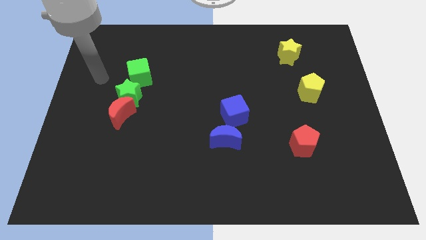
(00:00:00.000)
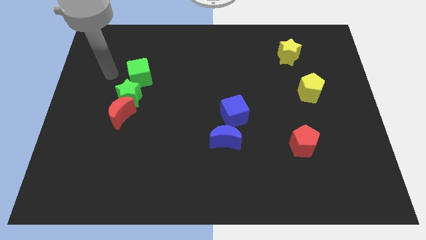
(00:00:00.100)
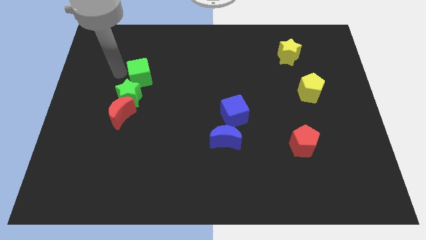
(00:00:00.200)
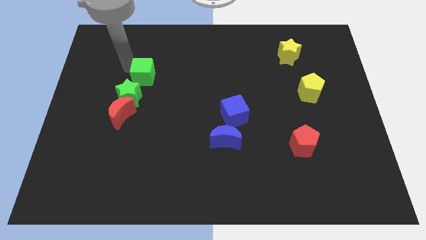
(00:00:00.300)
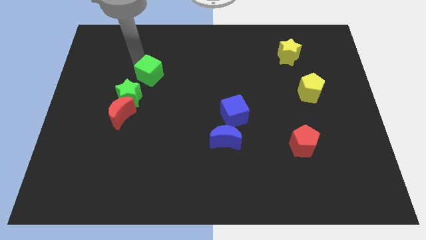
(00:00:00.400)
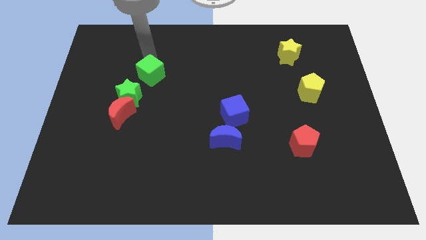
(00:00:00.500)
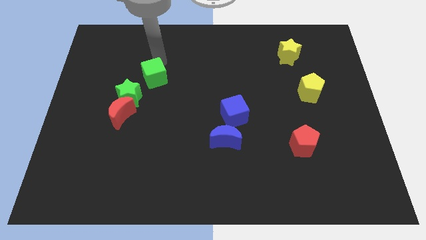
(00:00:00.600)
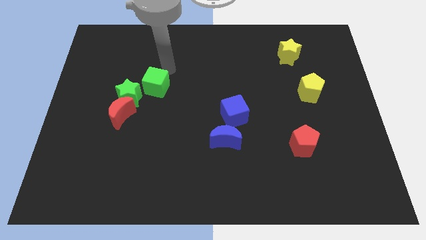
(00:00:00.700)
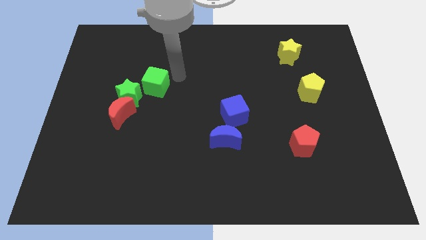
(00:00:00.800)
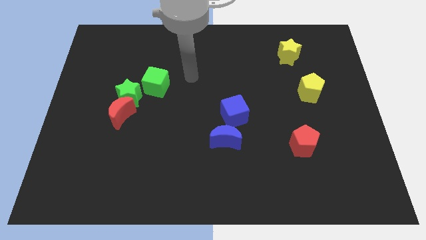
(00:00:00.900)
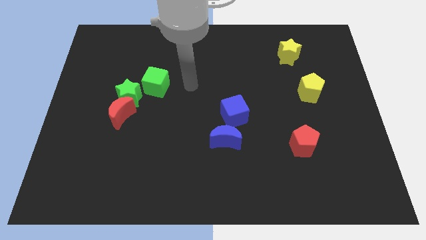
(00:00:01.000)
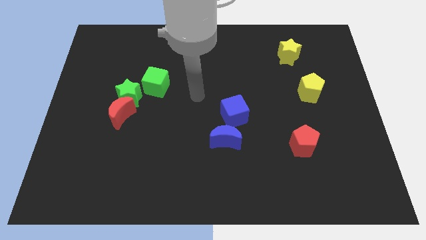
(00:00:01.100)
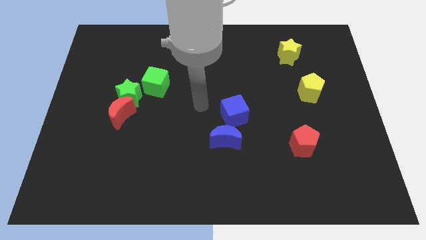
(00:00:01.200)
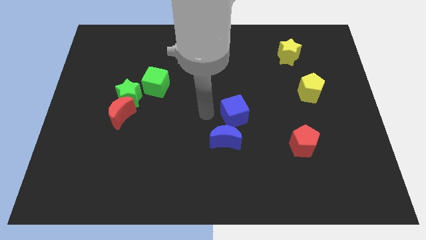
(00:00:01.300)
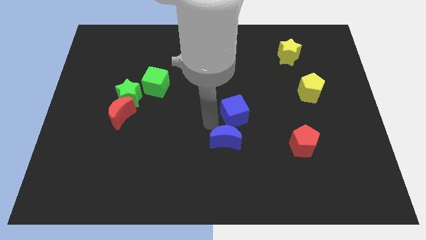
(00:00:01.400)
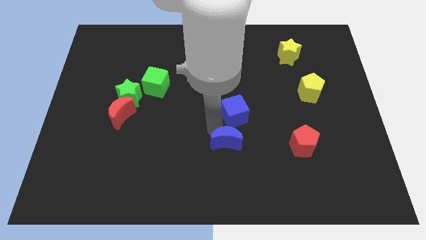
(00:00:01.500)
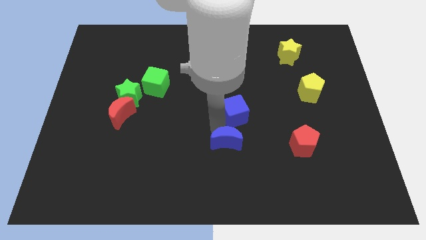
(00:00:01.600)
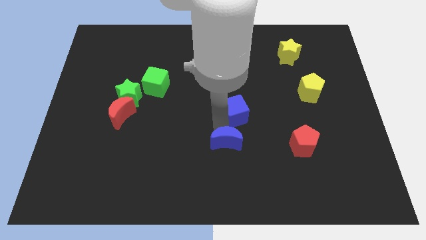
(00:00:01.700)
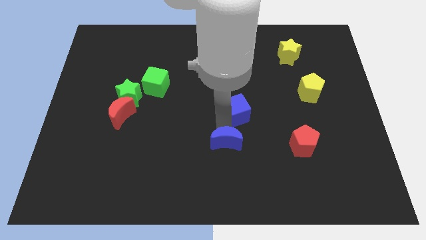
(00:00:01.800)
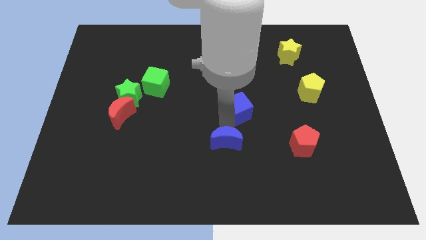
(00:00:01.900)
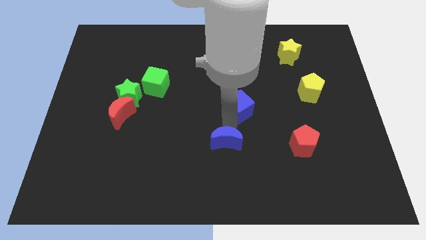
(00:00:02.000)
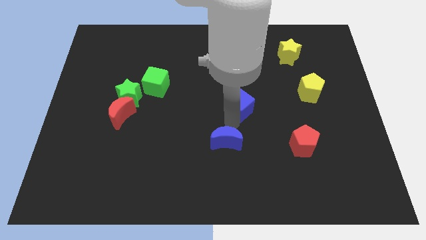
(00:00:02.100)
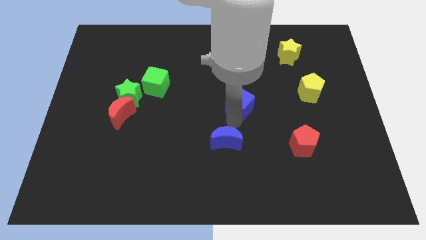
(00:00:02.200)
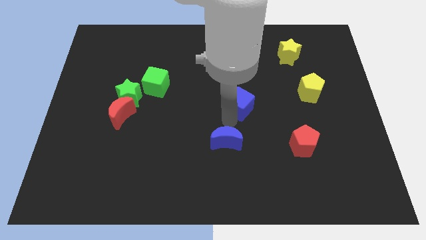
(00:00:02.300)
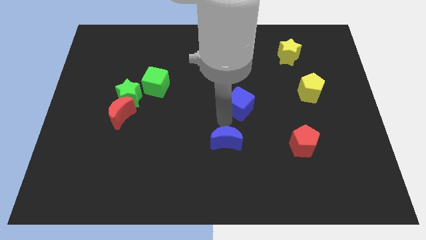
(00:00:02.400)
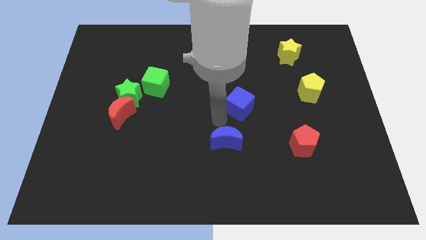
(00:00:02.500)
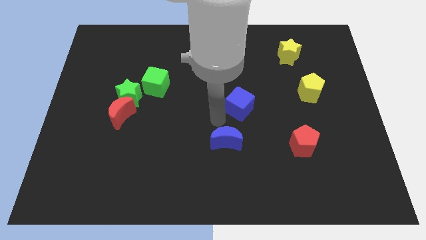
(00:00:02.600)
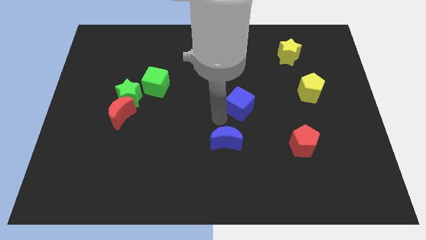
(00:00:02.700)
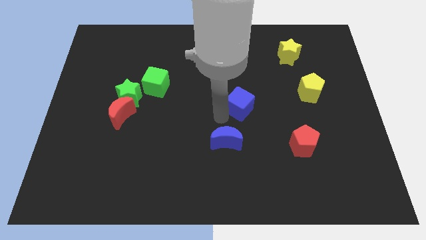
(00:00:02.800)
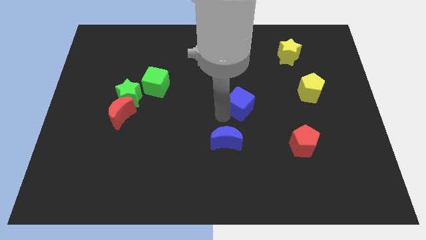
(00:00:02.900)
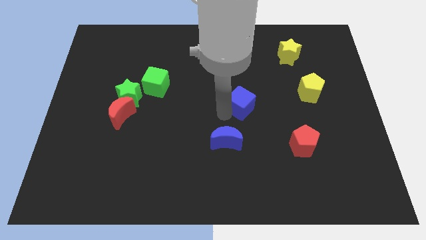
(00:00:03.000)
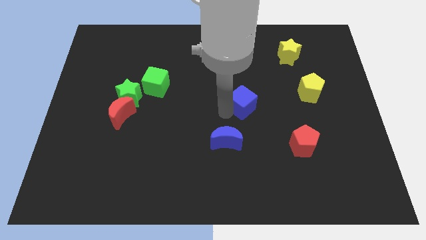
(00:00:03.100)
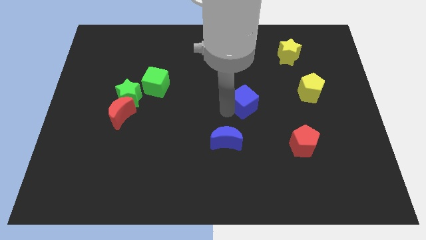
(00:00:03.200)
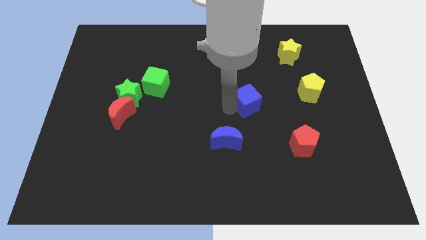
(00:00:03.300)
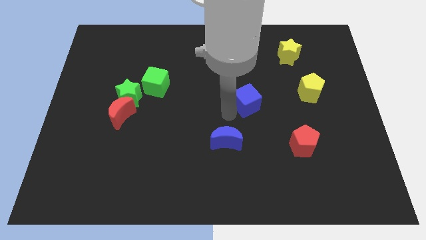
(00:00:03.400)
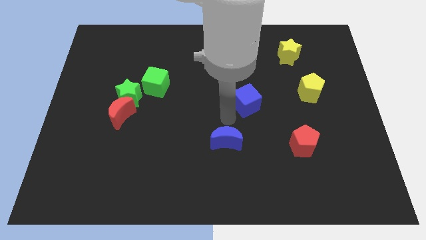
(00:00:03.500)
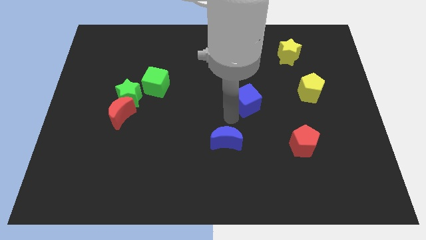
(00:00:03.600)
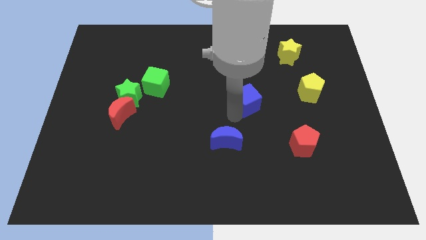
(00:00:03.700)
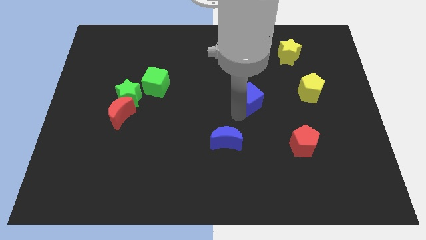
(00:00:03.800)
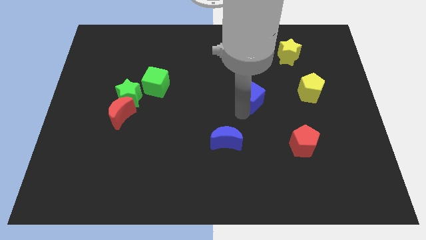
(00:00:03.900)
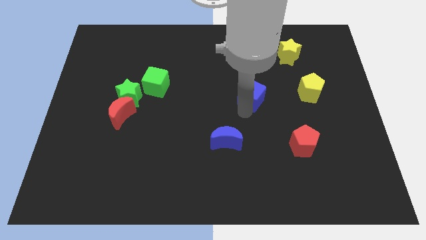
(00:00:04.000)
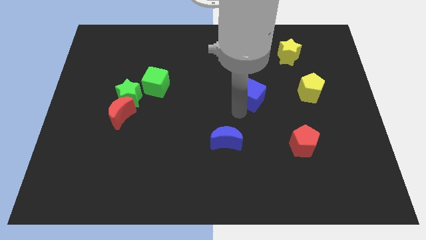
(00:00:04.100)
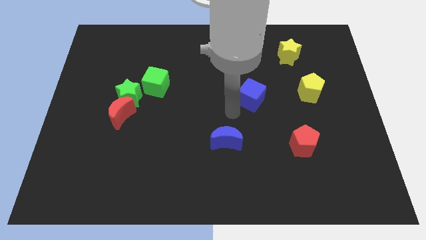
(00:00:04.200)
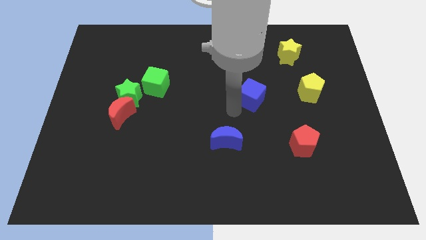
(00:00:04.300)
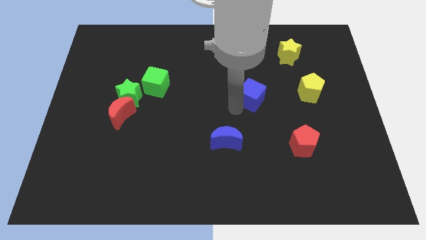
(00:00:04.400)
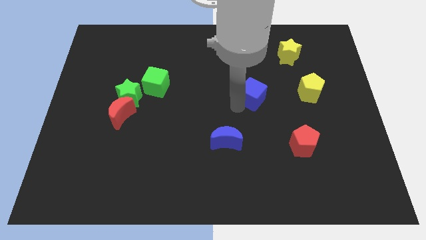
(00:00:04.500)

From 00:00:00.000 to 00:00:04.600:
slide the blue cube slightly up and then to the right

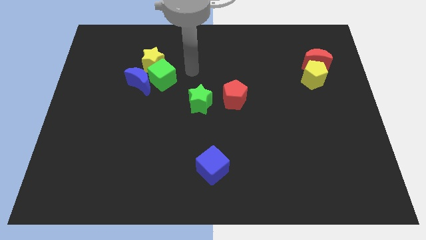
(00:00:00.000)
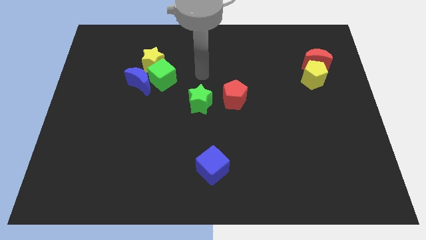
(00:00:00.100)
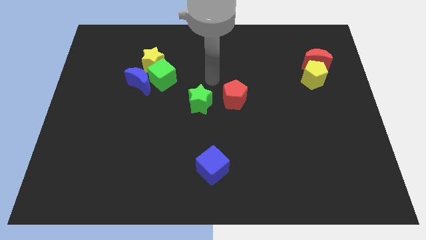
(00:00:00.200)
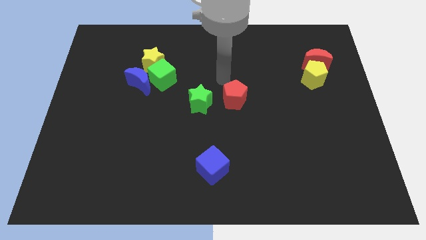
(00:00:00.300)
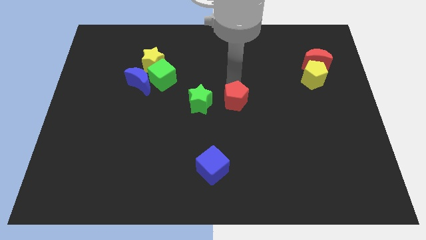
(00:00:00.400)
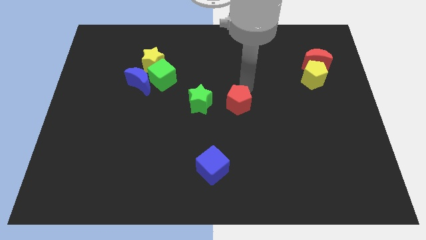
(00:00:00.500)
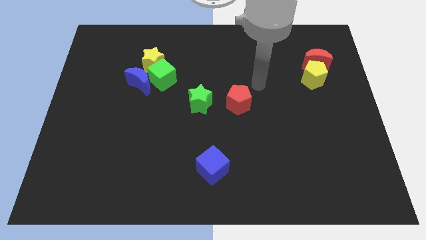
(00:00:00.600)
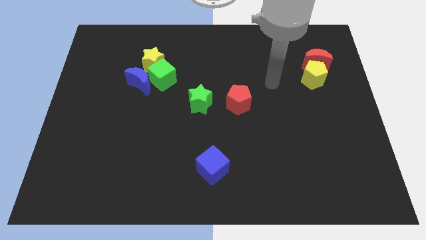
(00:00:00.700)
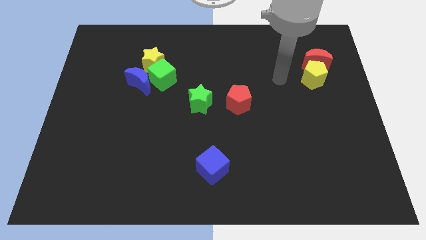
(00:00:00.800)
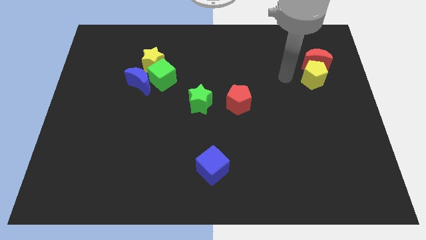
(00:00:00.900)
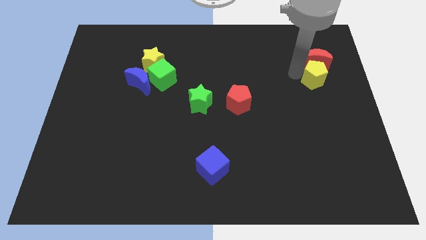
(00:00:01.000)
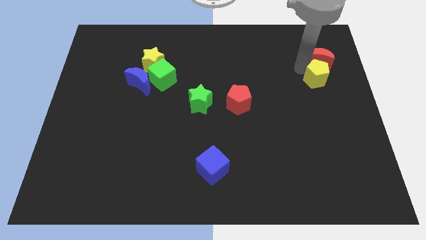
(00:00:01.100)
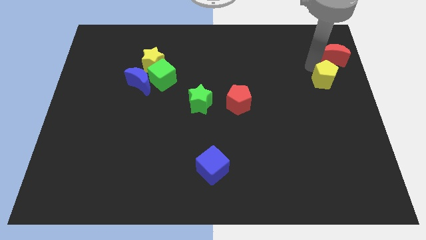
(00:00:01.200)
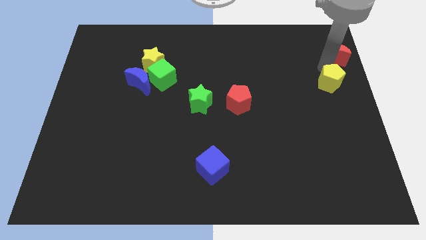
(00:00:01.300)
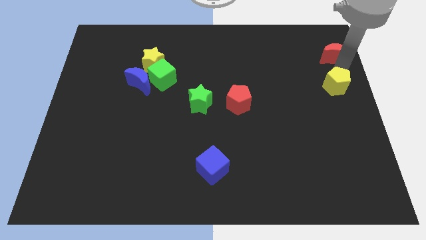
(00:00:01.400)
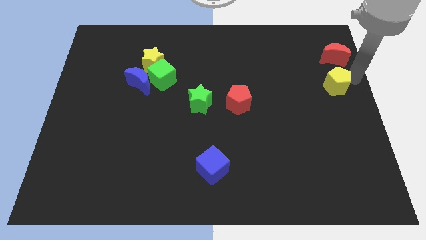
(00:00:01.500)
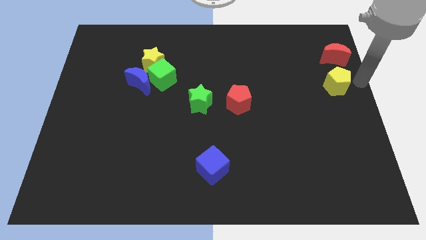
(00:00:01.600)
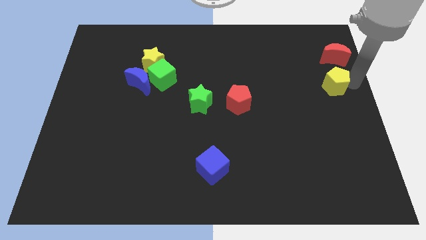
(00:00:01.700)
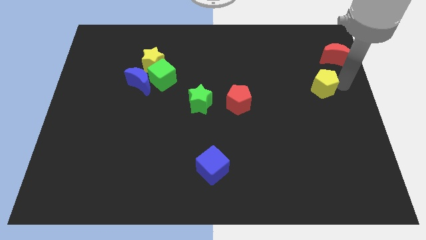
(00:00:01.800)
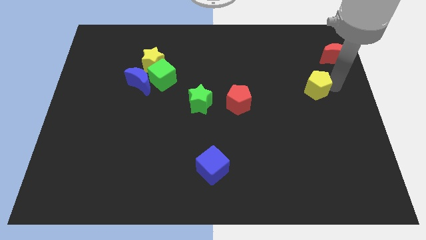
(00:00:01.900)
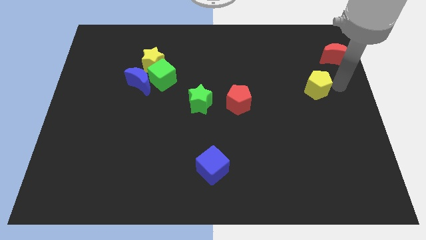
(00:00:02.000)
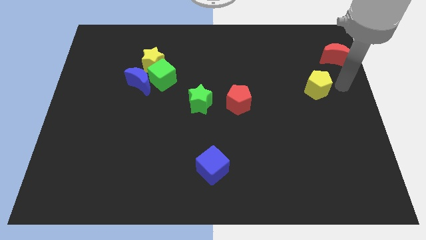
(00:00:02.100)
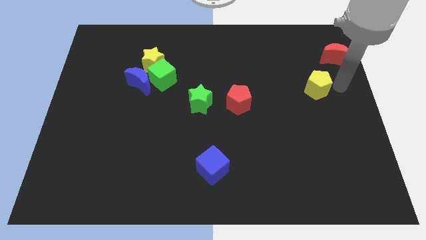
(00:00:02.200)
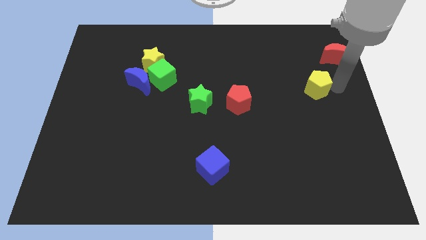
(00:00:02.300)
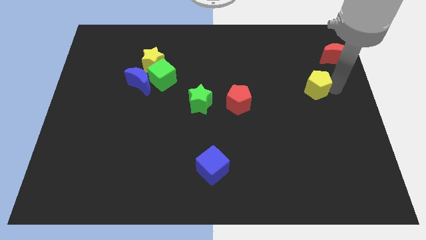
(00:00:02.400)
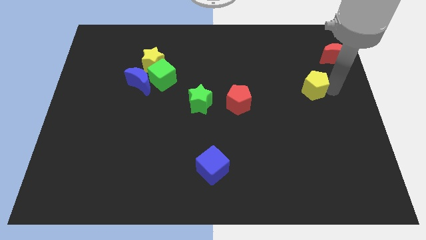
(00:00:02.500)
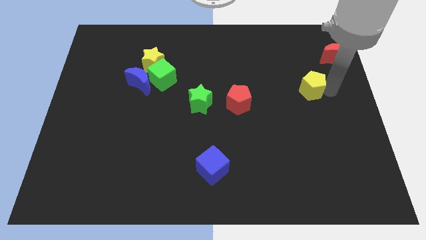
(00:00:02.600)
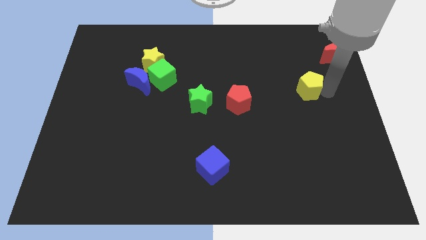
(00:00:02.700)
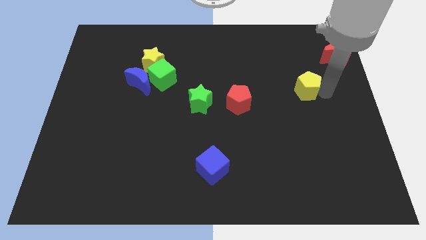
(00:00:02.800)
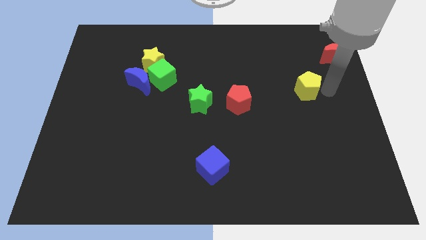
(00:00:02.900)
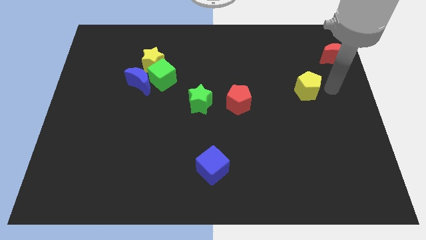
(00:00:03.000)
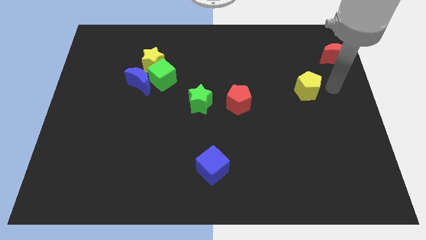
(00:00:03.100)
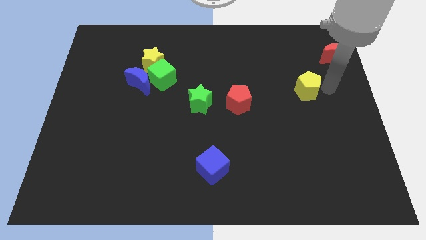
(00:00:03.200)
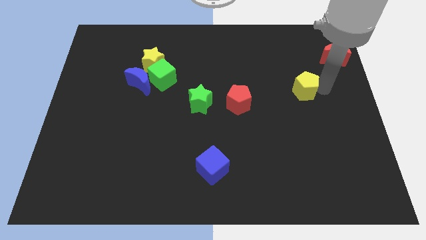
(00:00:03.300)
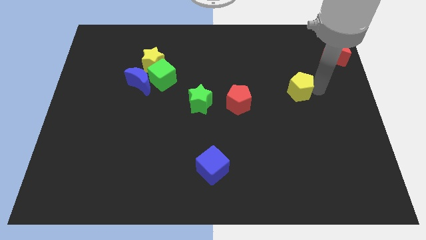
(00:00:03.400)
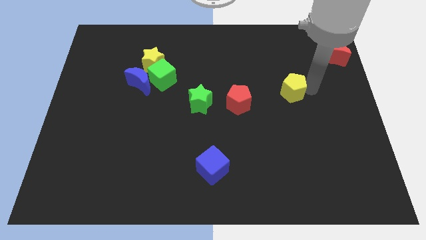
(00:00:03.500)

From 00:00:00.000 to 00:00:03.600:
slightly slide the yellow pentagon downwards and left
